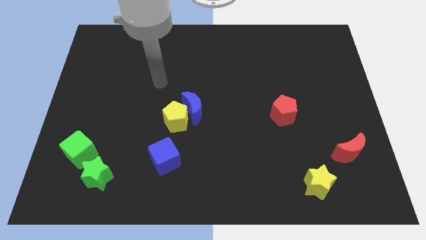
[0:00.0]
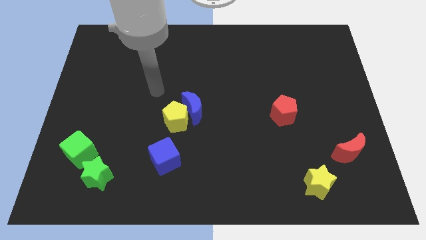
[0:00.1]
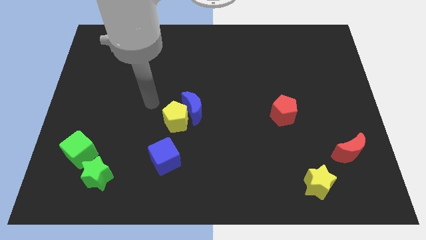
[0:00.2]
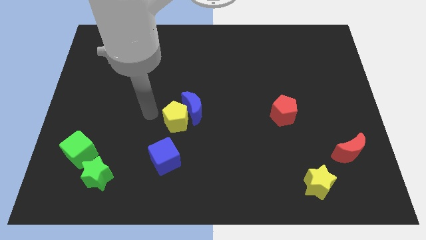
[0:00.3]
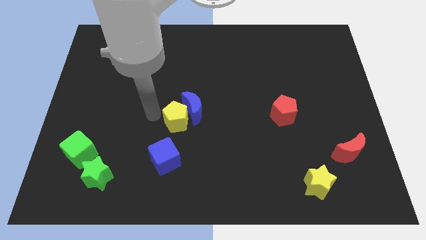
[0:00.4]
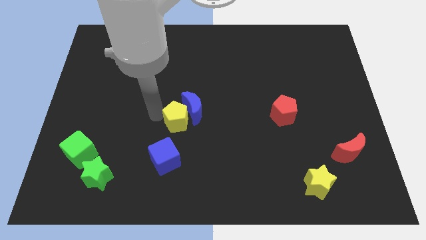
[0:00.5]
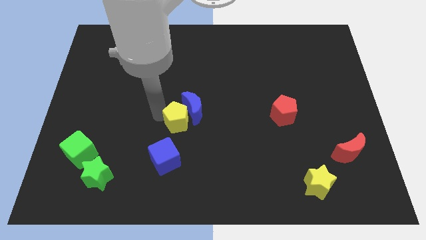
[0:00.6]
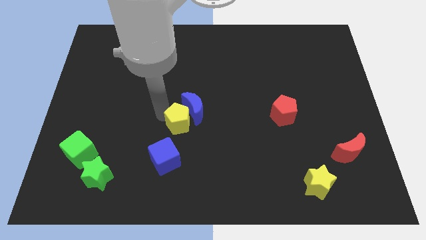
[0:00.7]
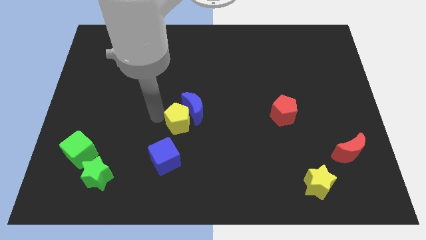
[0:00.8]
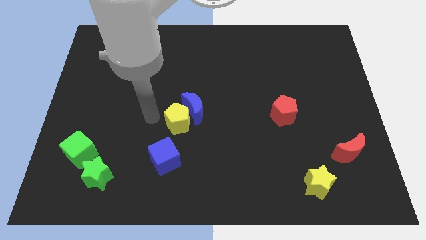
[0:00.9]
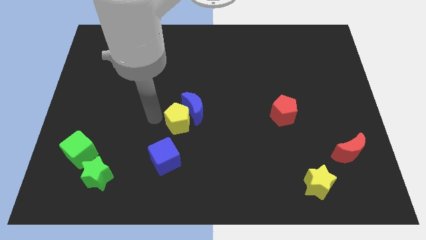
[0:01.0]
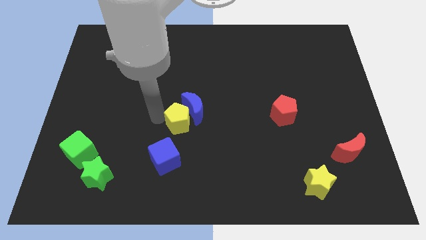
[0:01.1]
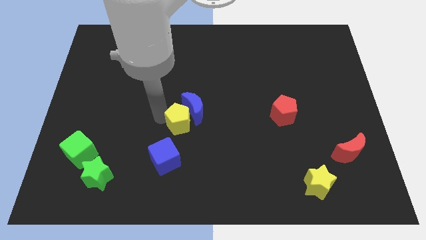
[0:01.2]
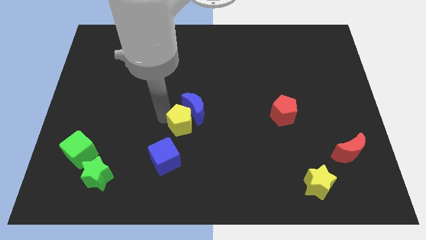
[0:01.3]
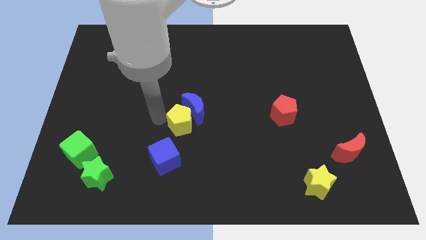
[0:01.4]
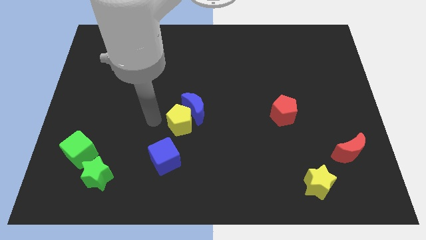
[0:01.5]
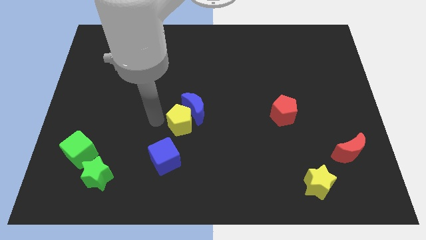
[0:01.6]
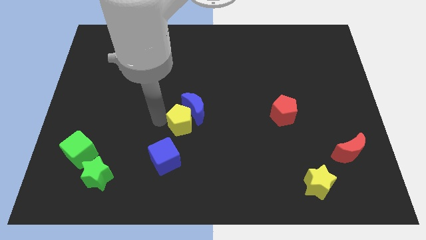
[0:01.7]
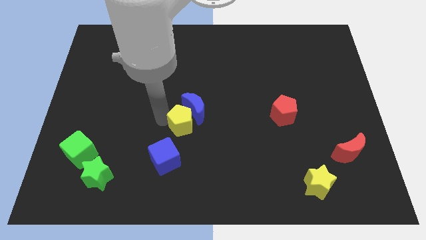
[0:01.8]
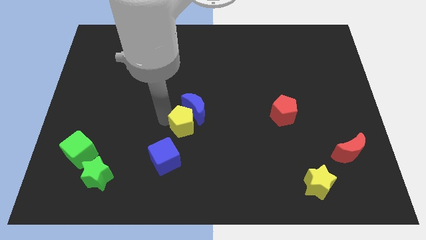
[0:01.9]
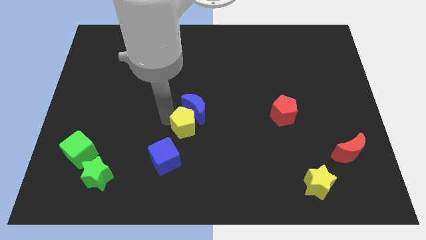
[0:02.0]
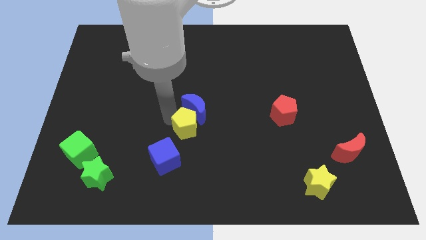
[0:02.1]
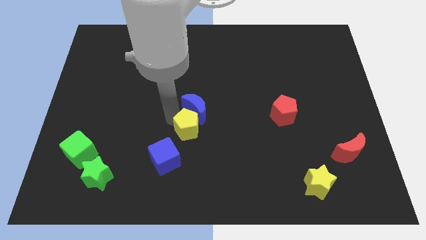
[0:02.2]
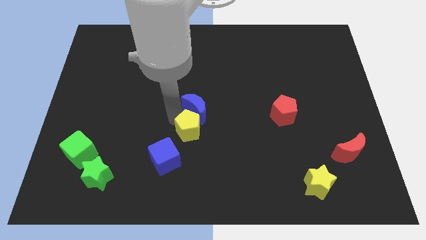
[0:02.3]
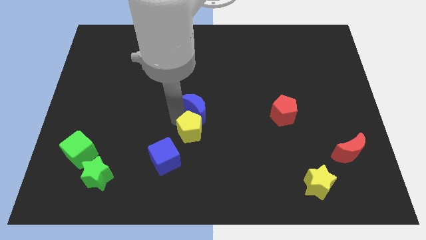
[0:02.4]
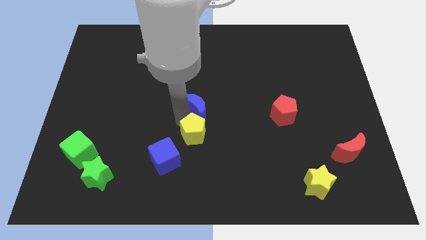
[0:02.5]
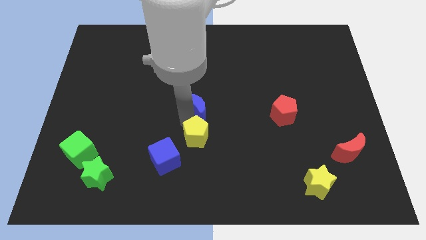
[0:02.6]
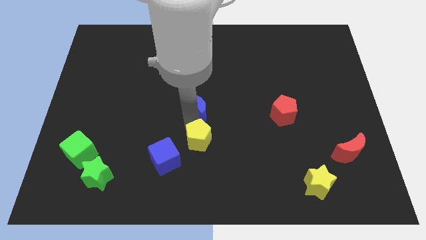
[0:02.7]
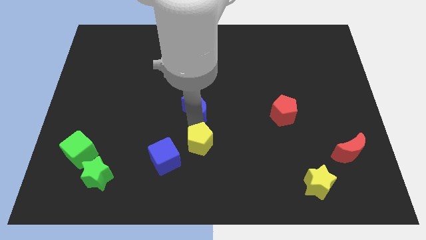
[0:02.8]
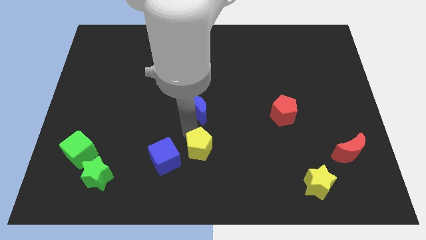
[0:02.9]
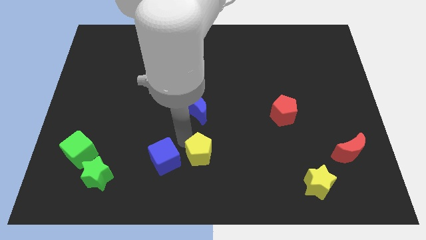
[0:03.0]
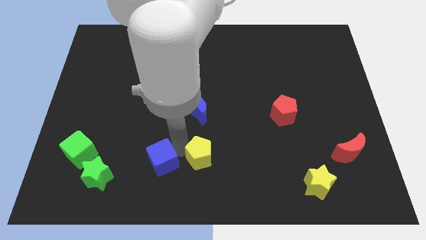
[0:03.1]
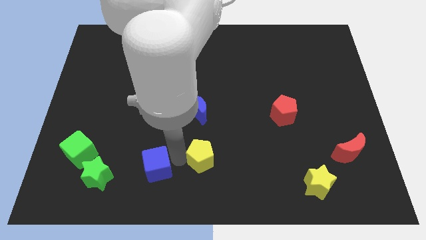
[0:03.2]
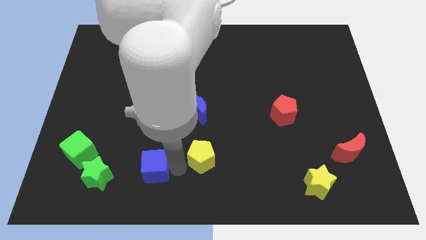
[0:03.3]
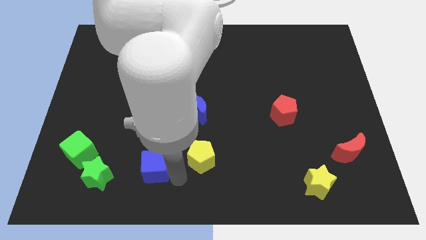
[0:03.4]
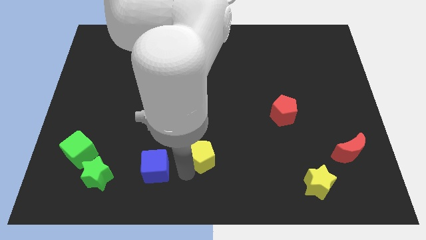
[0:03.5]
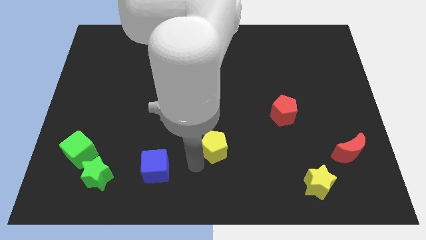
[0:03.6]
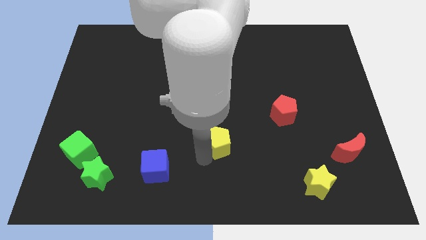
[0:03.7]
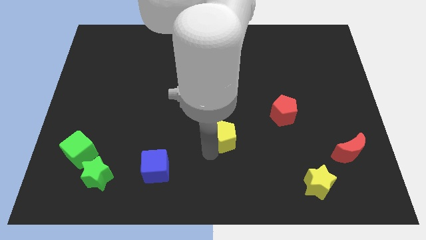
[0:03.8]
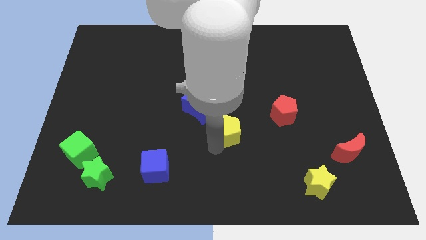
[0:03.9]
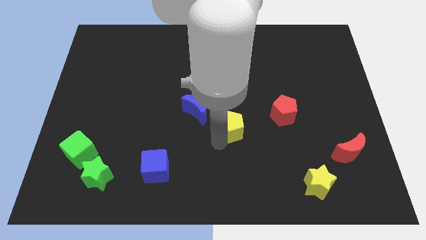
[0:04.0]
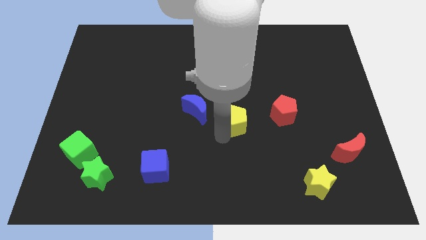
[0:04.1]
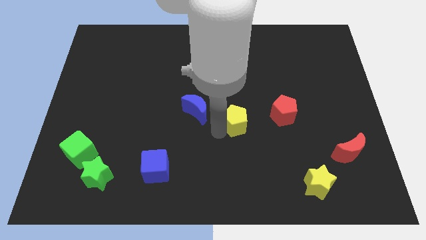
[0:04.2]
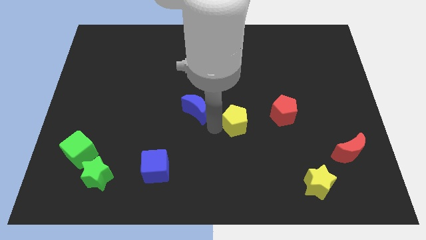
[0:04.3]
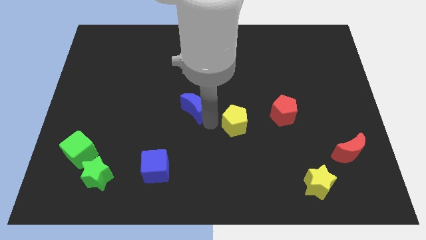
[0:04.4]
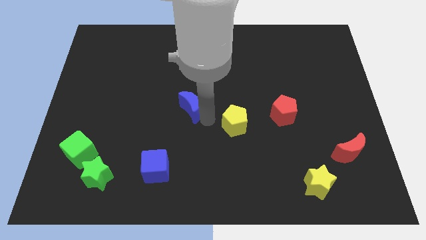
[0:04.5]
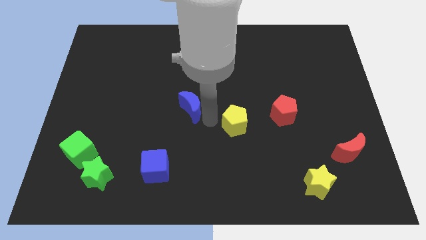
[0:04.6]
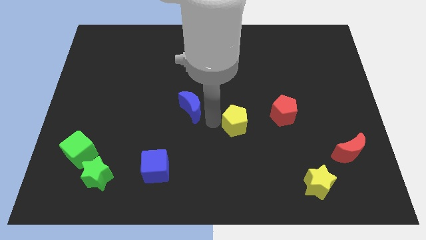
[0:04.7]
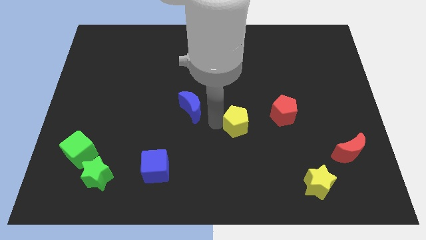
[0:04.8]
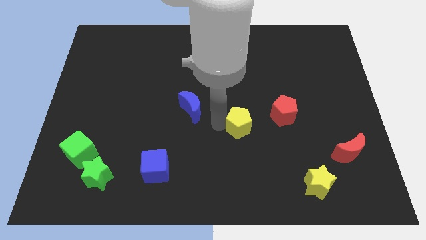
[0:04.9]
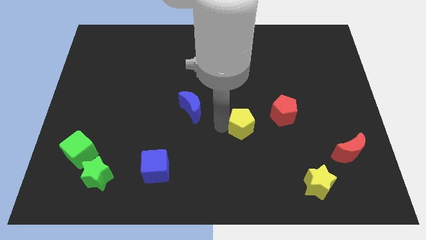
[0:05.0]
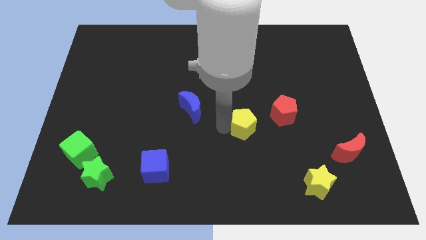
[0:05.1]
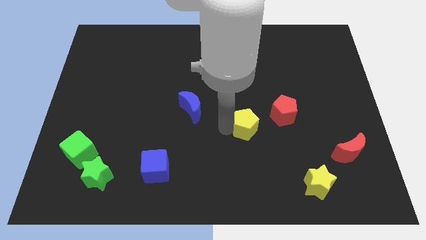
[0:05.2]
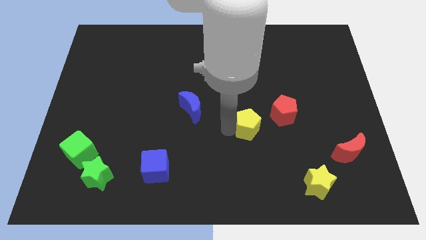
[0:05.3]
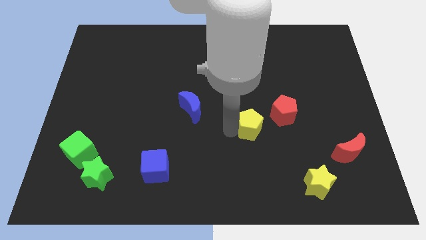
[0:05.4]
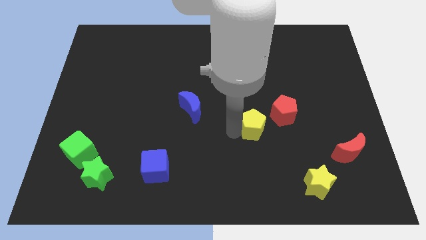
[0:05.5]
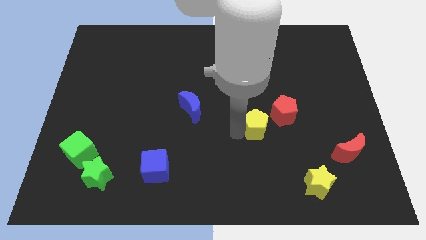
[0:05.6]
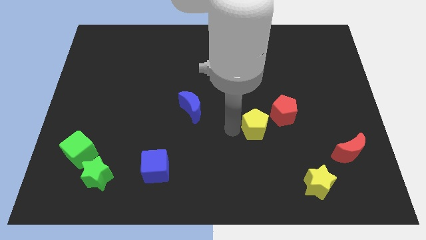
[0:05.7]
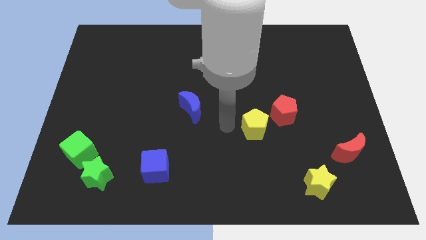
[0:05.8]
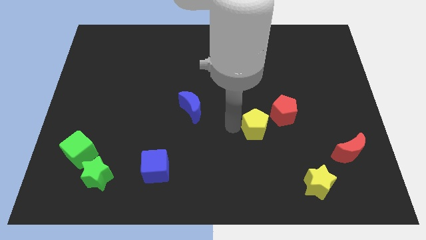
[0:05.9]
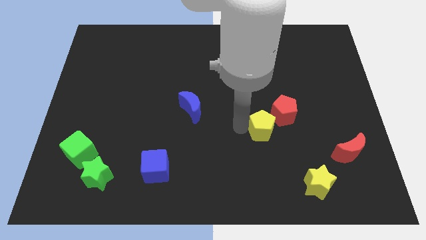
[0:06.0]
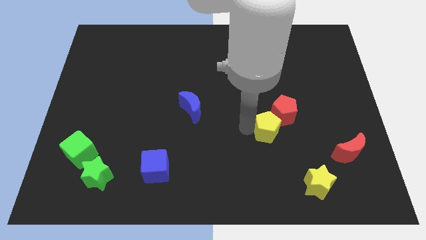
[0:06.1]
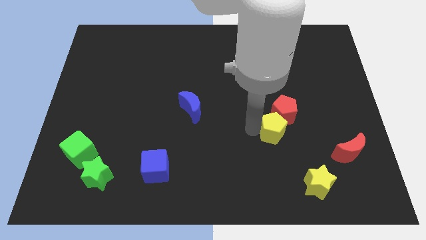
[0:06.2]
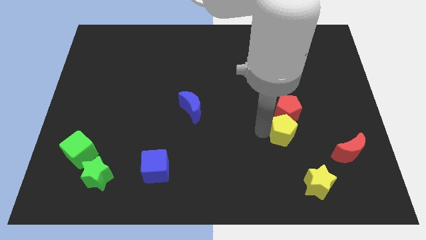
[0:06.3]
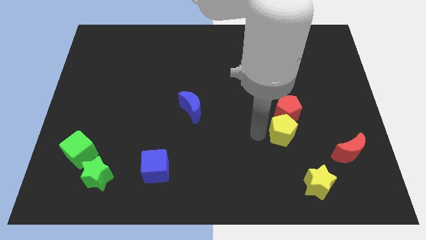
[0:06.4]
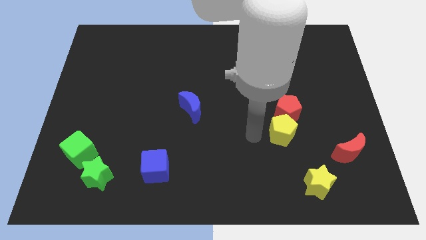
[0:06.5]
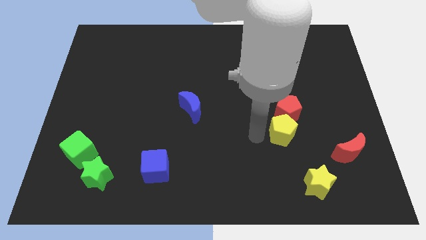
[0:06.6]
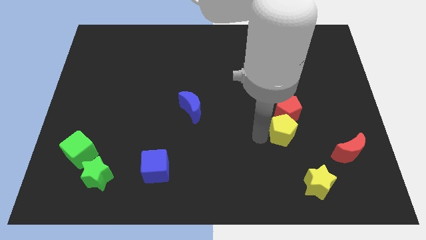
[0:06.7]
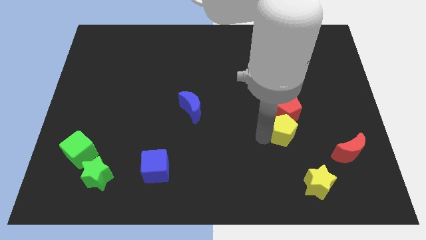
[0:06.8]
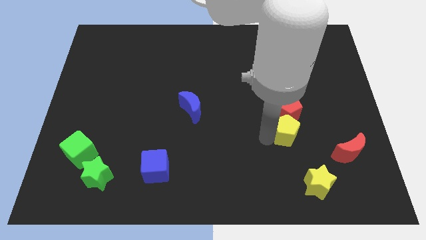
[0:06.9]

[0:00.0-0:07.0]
put the yellow pentagon to the bottom right side of the red pentagon

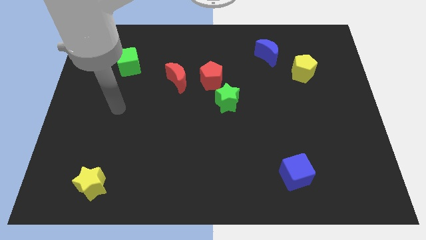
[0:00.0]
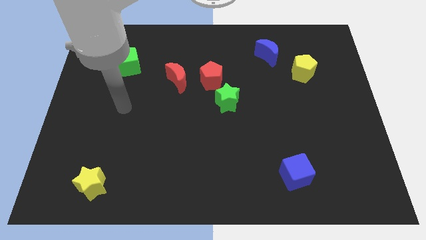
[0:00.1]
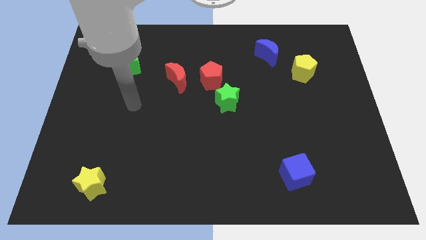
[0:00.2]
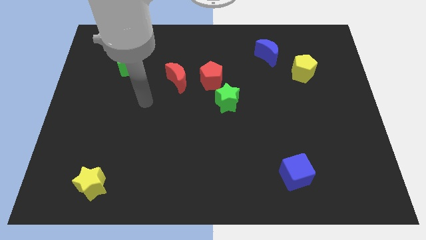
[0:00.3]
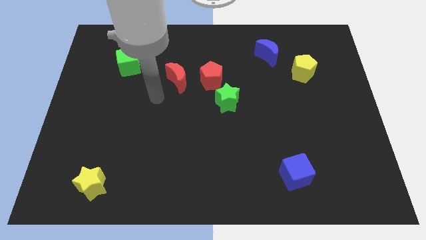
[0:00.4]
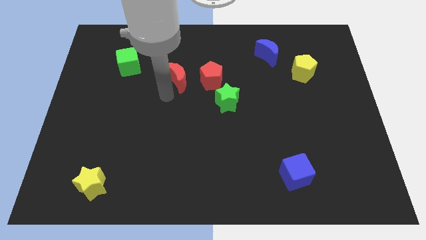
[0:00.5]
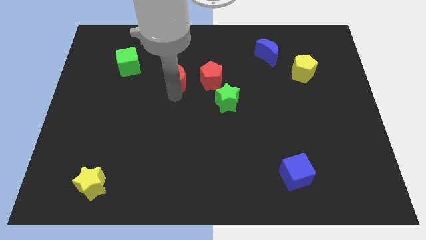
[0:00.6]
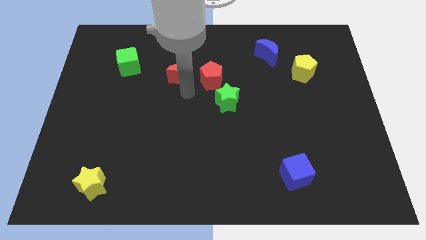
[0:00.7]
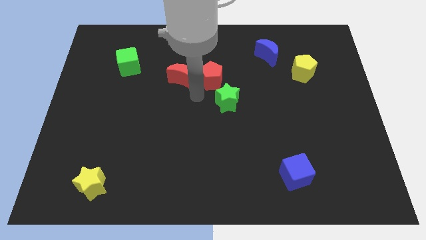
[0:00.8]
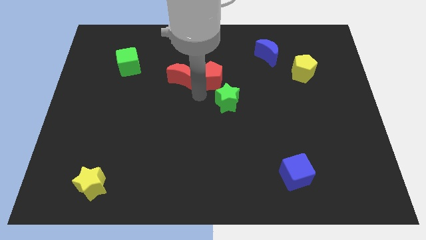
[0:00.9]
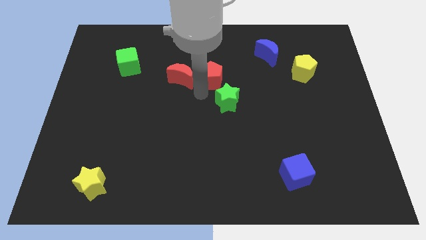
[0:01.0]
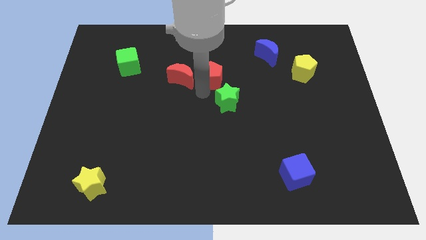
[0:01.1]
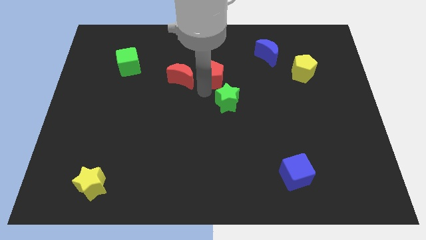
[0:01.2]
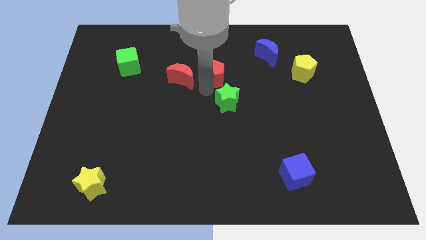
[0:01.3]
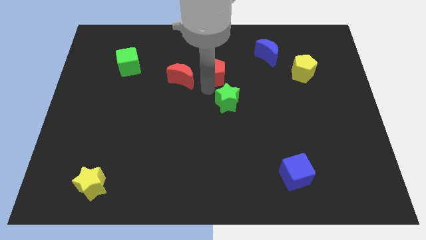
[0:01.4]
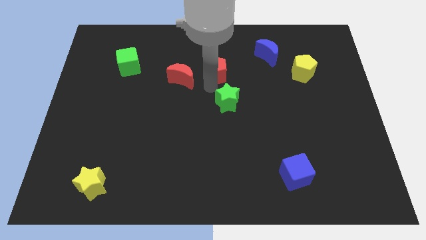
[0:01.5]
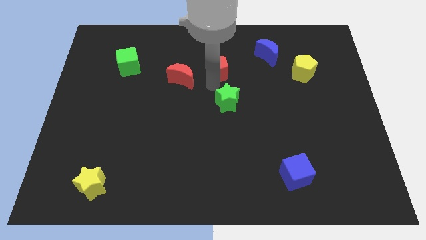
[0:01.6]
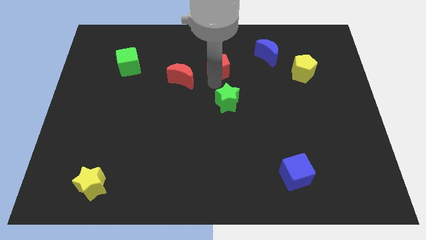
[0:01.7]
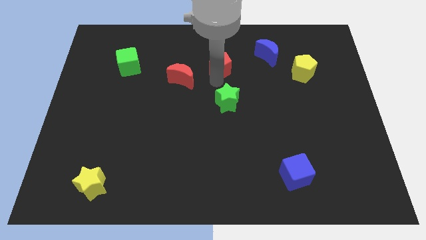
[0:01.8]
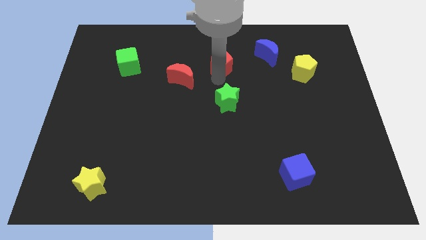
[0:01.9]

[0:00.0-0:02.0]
put the red pentagon to the left side of the blue moon
